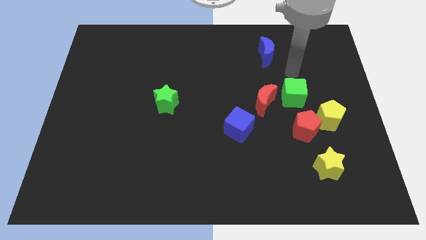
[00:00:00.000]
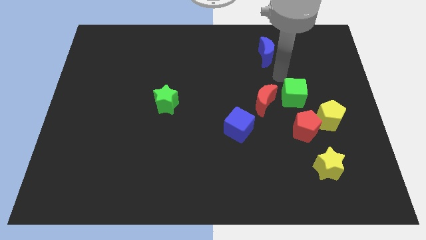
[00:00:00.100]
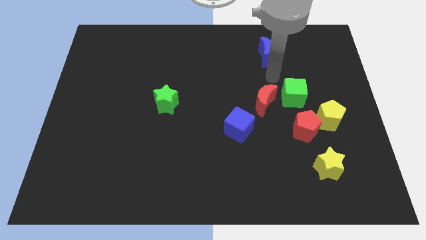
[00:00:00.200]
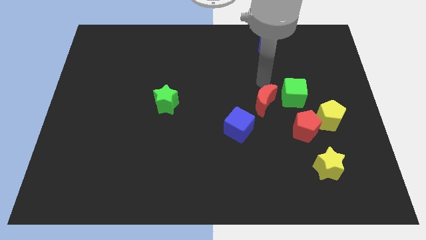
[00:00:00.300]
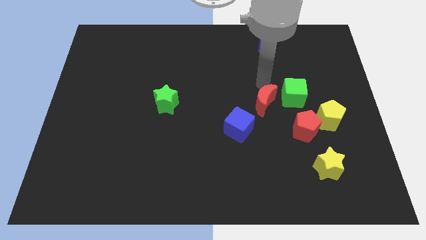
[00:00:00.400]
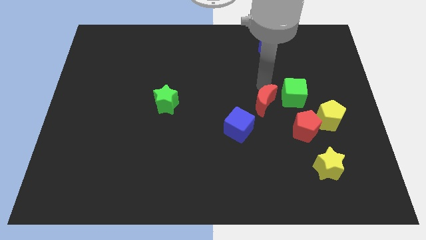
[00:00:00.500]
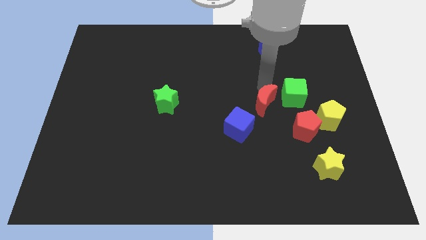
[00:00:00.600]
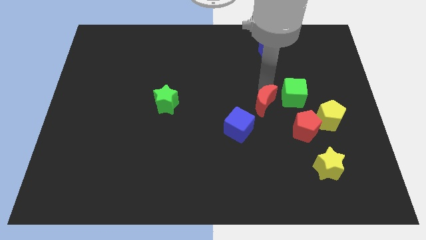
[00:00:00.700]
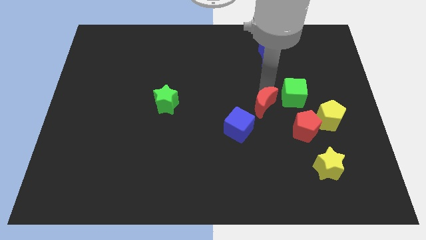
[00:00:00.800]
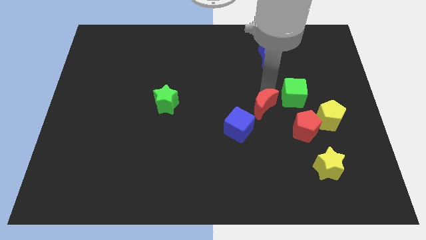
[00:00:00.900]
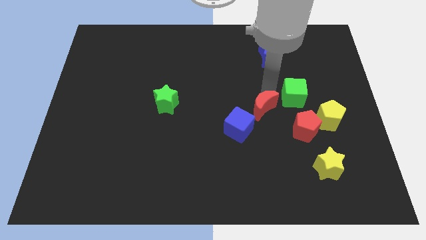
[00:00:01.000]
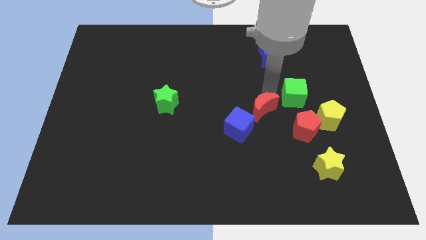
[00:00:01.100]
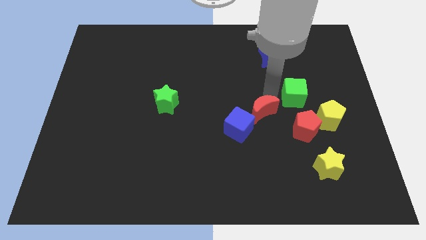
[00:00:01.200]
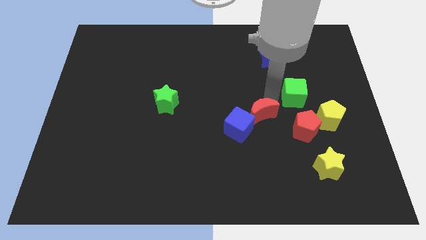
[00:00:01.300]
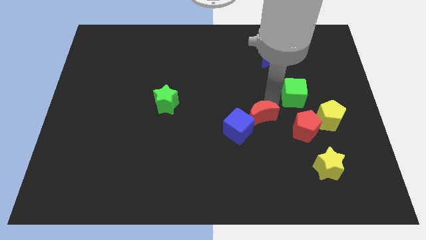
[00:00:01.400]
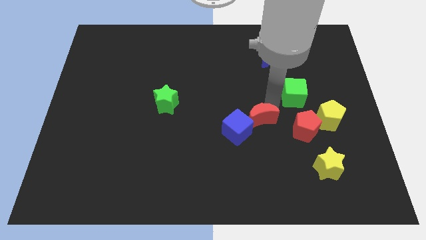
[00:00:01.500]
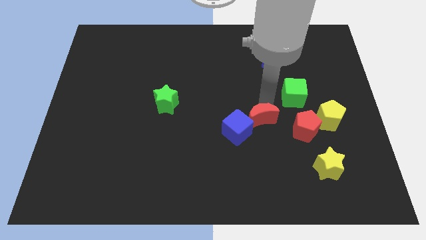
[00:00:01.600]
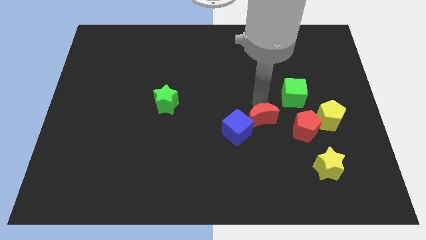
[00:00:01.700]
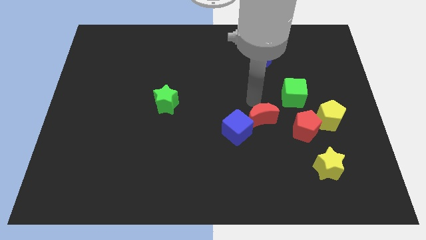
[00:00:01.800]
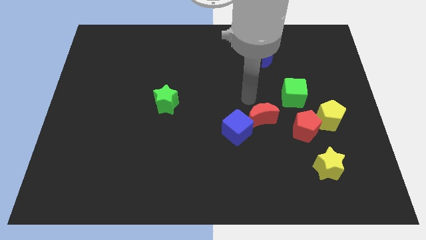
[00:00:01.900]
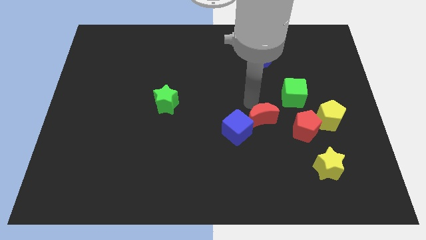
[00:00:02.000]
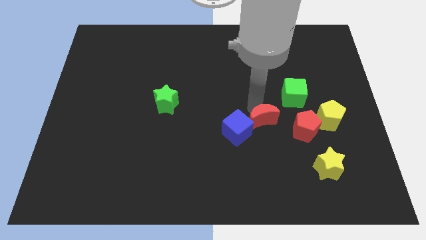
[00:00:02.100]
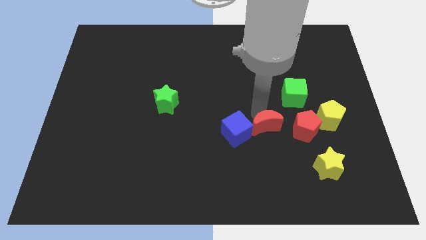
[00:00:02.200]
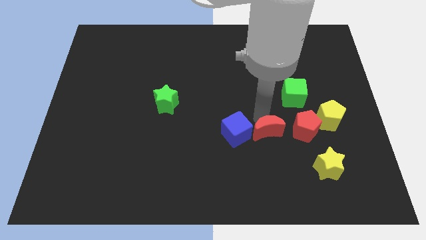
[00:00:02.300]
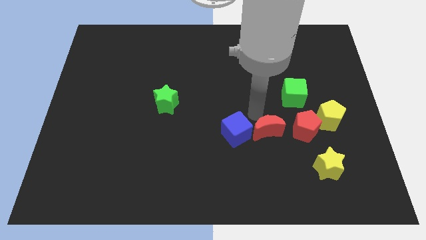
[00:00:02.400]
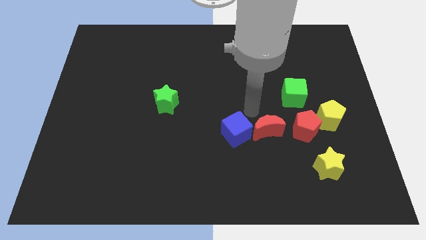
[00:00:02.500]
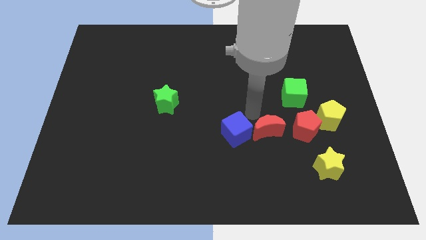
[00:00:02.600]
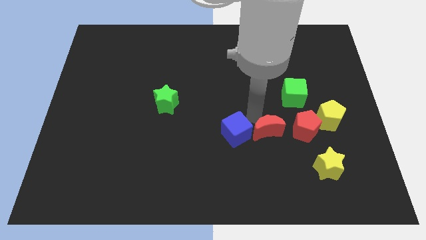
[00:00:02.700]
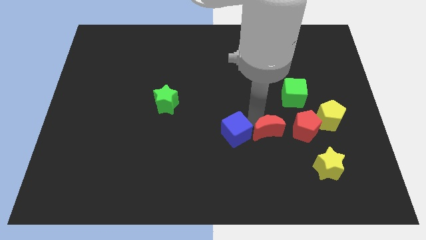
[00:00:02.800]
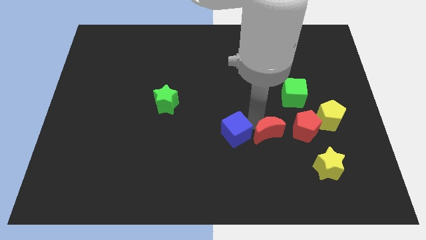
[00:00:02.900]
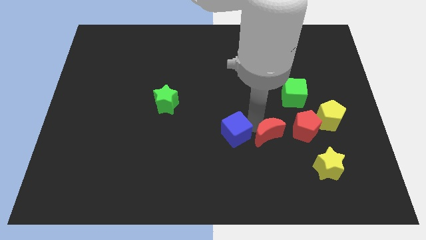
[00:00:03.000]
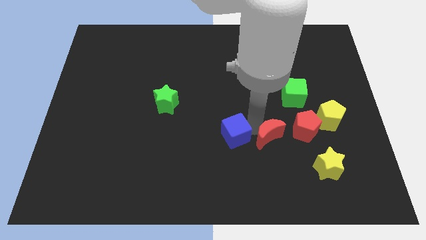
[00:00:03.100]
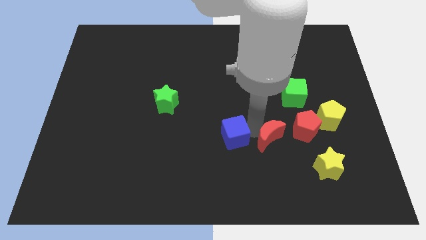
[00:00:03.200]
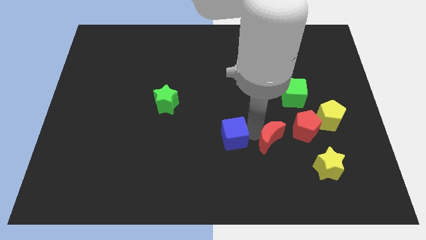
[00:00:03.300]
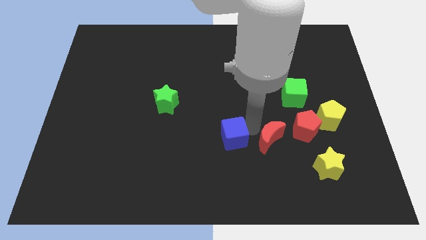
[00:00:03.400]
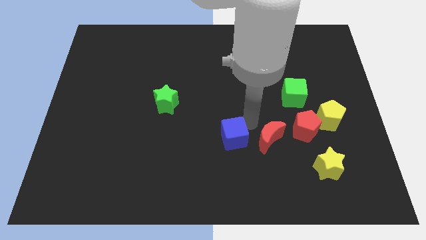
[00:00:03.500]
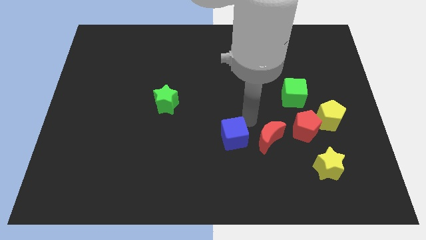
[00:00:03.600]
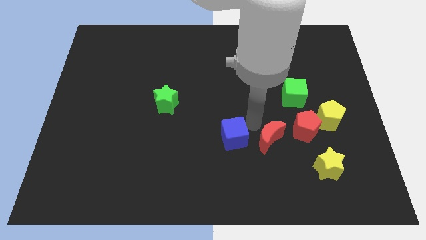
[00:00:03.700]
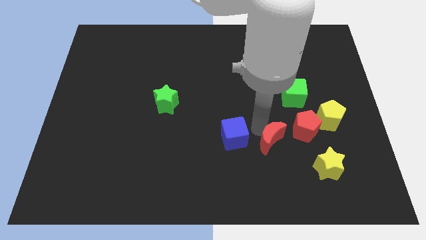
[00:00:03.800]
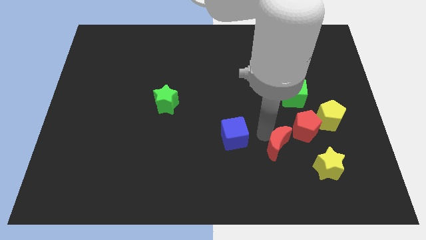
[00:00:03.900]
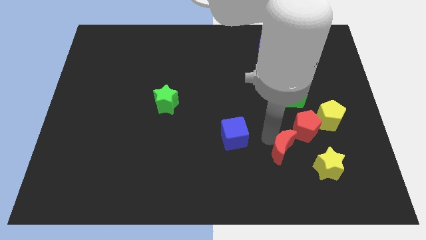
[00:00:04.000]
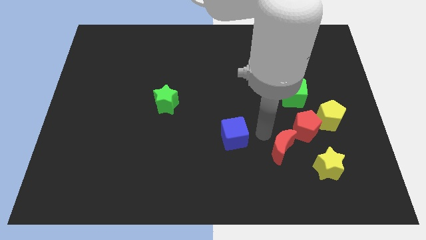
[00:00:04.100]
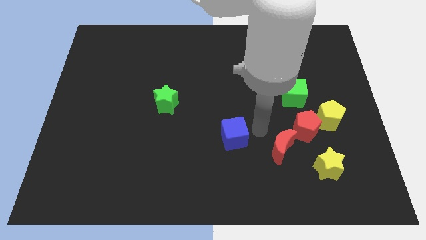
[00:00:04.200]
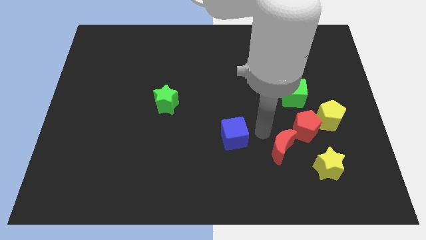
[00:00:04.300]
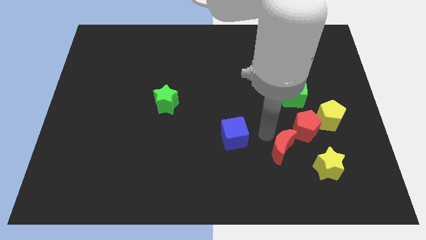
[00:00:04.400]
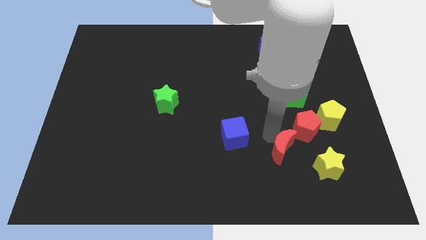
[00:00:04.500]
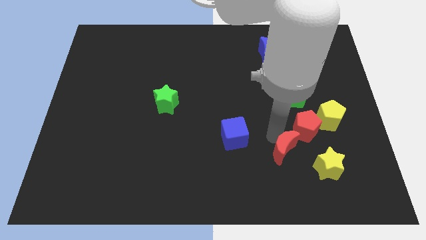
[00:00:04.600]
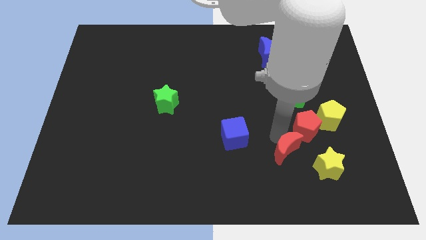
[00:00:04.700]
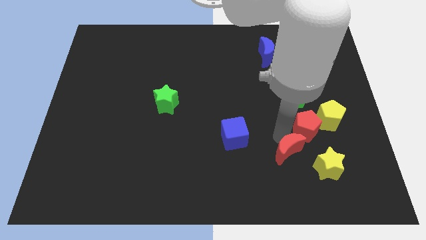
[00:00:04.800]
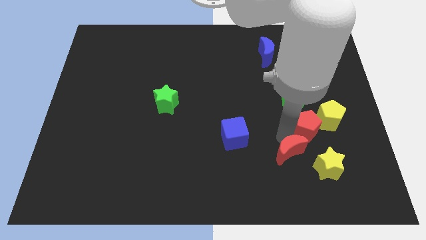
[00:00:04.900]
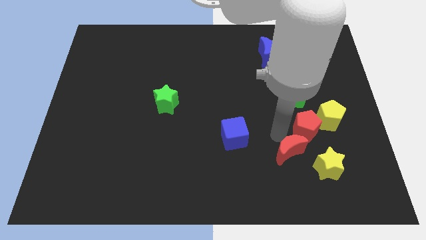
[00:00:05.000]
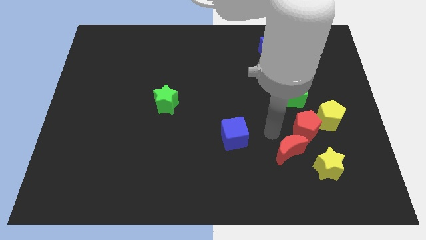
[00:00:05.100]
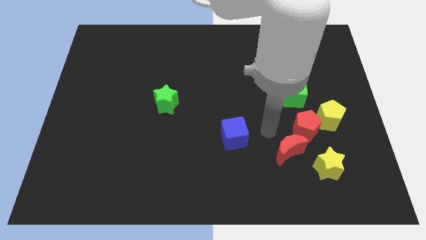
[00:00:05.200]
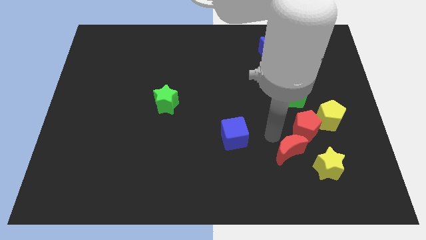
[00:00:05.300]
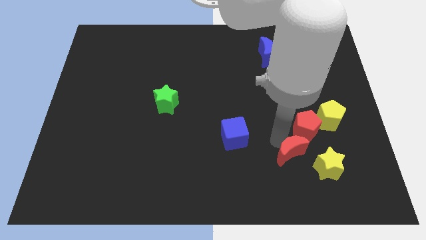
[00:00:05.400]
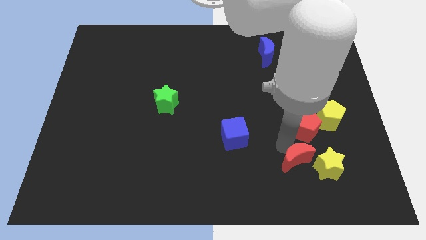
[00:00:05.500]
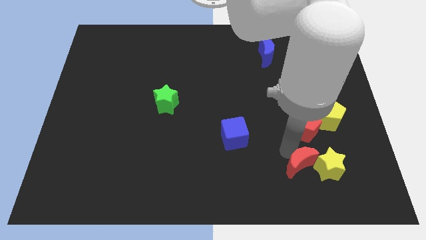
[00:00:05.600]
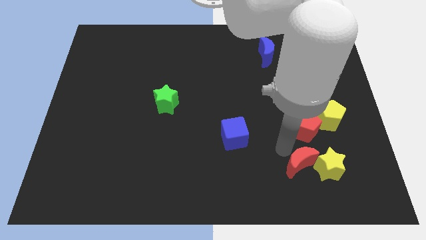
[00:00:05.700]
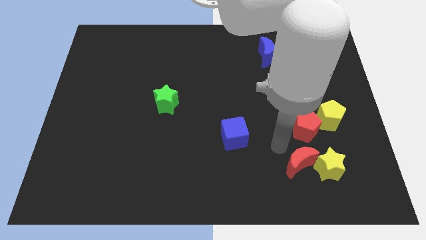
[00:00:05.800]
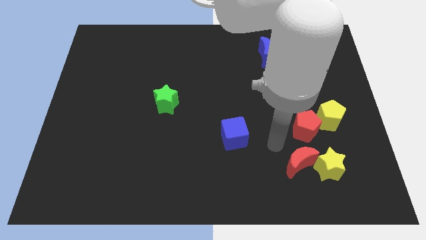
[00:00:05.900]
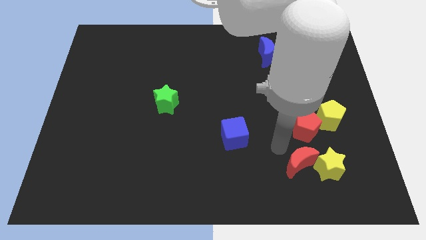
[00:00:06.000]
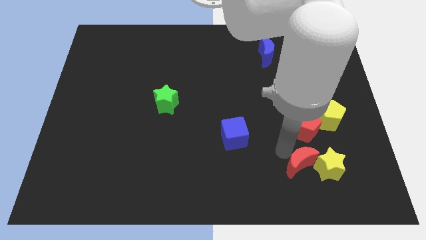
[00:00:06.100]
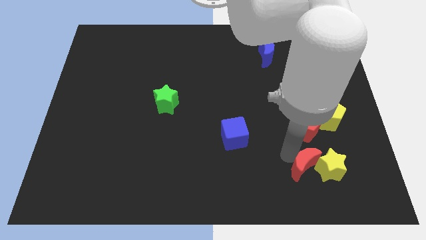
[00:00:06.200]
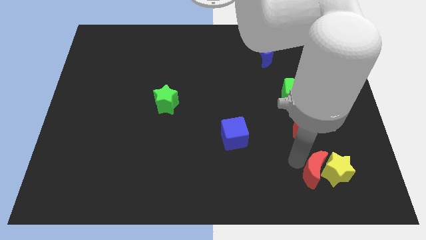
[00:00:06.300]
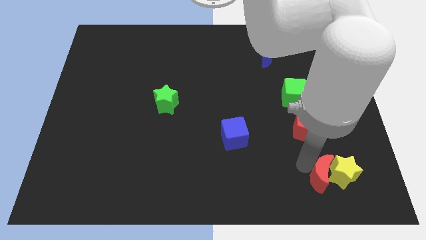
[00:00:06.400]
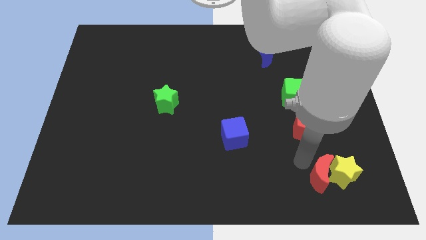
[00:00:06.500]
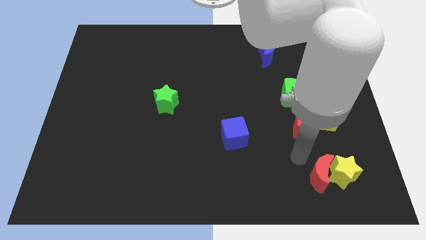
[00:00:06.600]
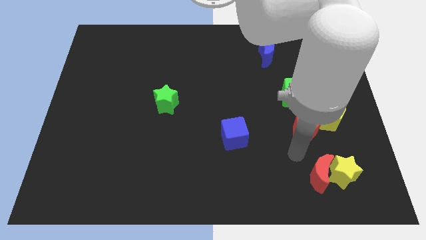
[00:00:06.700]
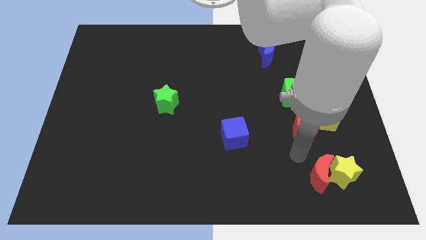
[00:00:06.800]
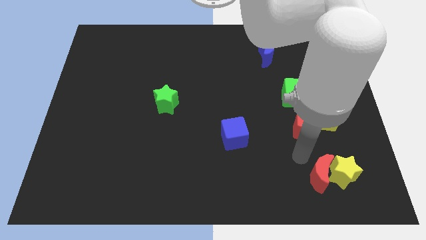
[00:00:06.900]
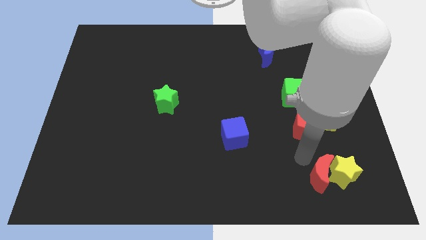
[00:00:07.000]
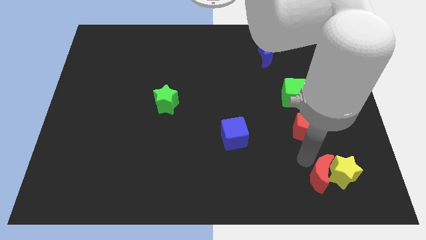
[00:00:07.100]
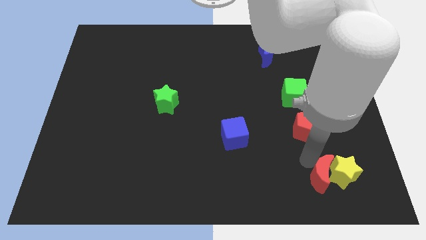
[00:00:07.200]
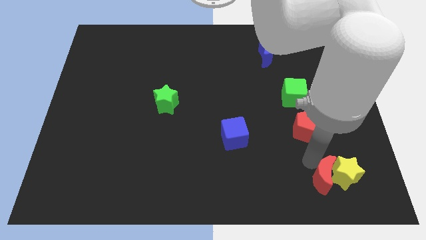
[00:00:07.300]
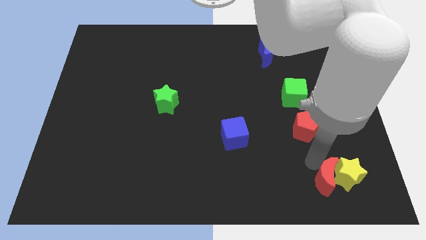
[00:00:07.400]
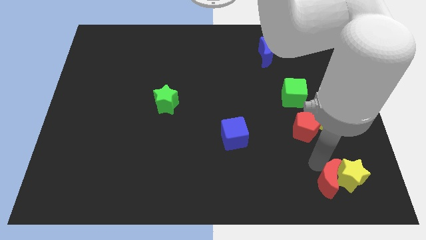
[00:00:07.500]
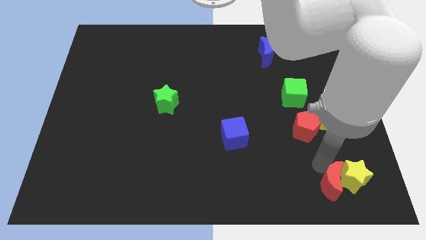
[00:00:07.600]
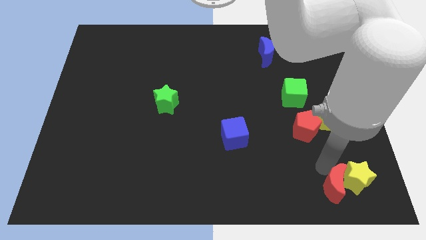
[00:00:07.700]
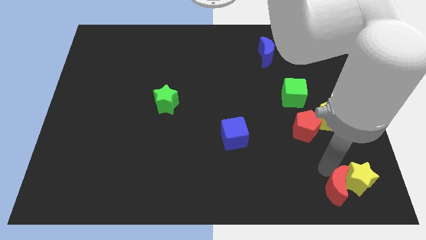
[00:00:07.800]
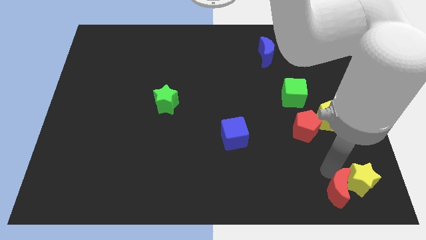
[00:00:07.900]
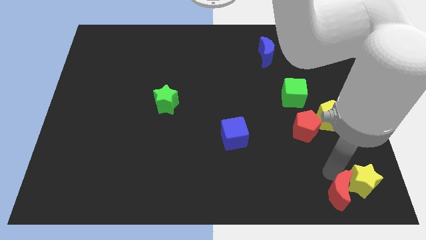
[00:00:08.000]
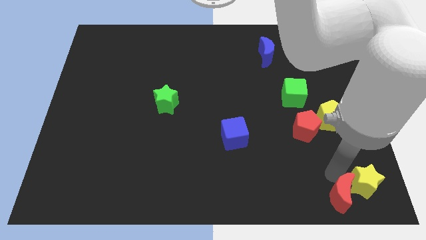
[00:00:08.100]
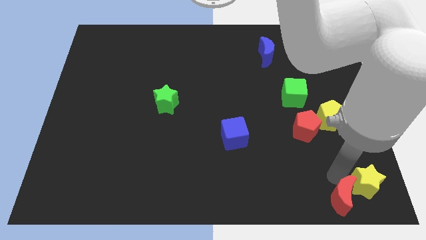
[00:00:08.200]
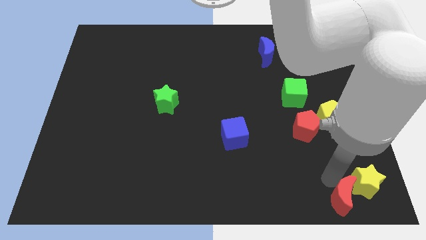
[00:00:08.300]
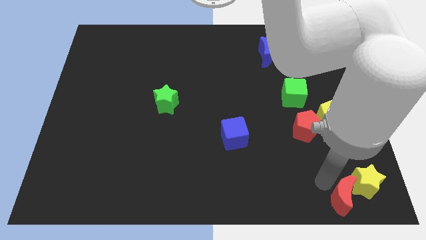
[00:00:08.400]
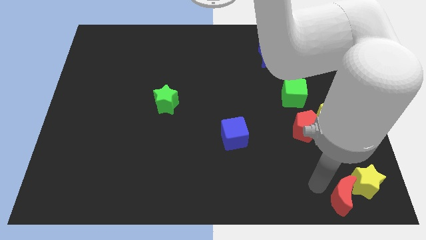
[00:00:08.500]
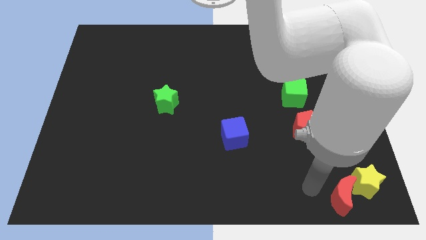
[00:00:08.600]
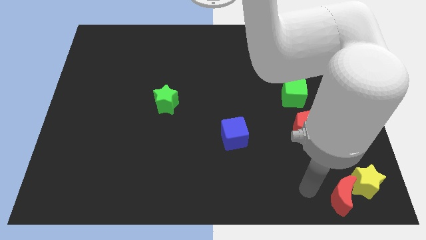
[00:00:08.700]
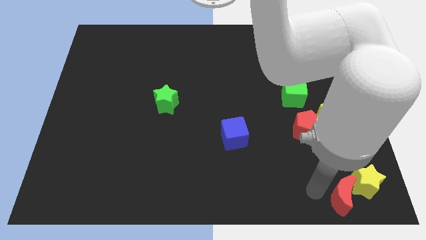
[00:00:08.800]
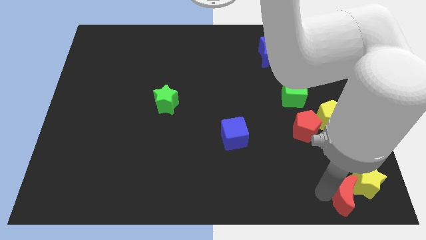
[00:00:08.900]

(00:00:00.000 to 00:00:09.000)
move the red moon to the lower right corner
